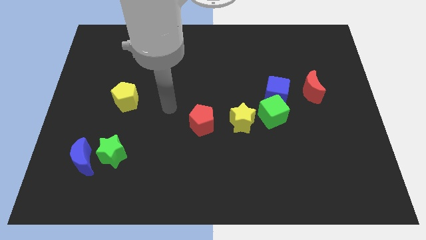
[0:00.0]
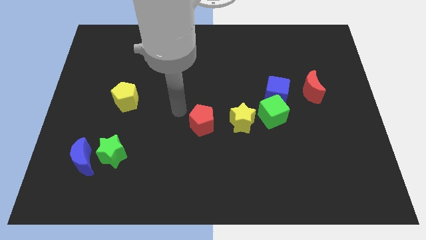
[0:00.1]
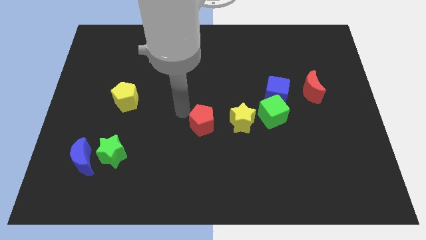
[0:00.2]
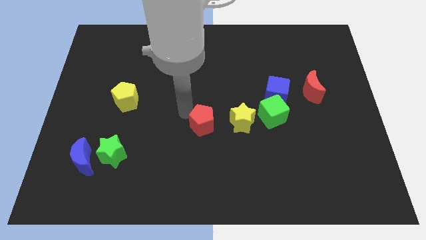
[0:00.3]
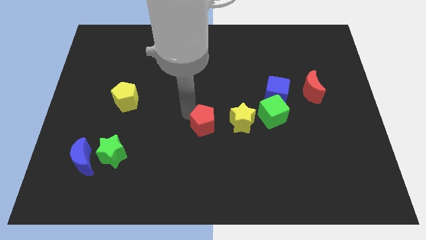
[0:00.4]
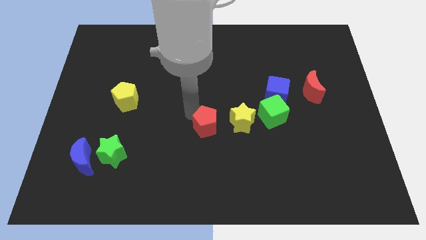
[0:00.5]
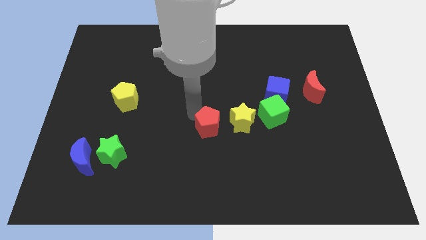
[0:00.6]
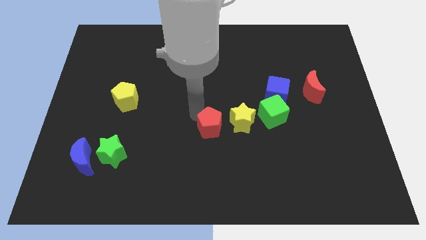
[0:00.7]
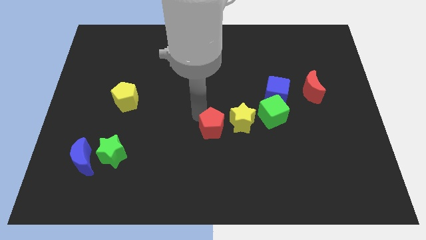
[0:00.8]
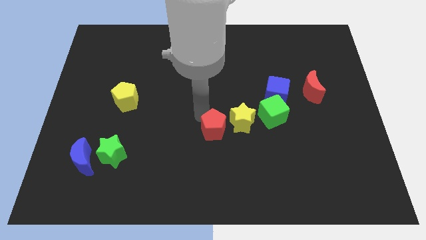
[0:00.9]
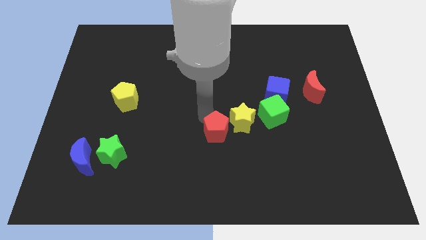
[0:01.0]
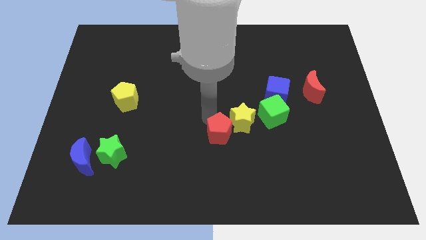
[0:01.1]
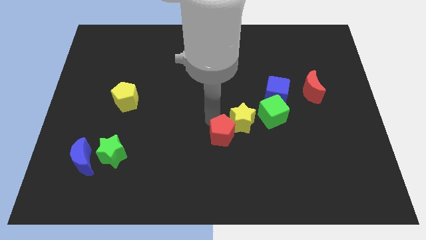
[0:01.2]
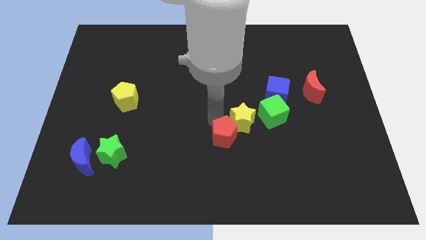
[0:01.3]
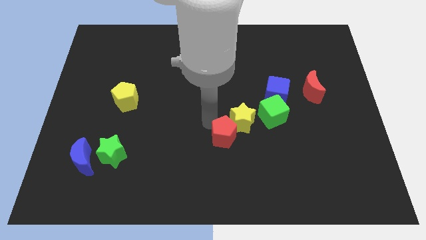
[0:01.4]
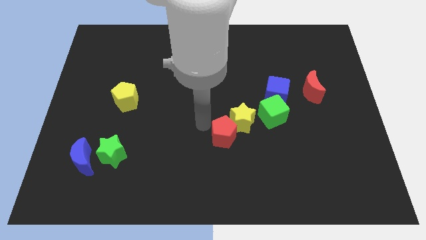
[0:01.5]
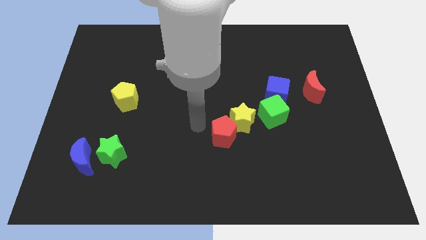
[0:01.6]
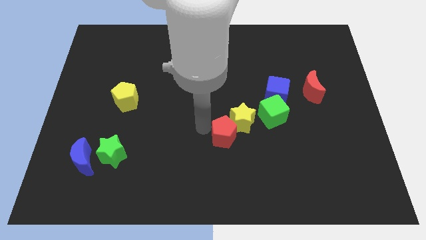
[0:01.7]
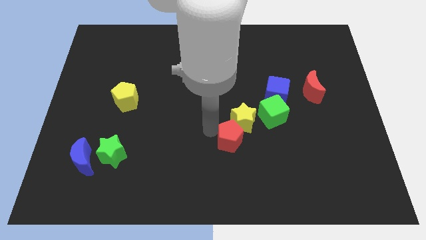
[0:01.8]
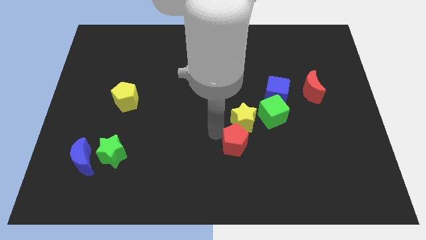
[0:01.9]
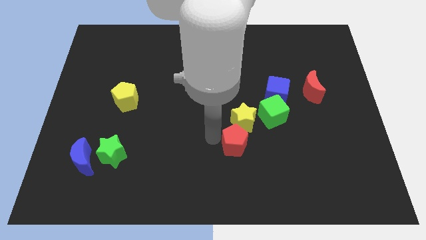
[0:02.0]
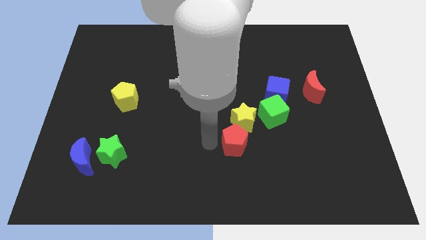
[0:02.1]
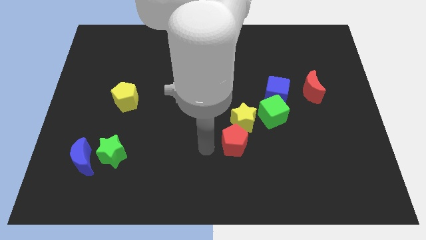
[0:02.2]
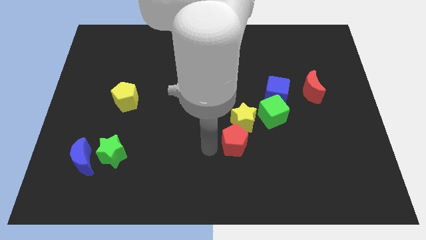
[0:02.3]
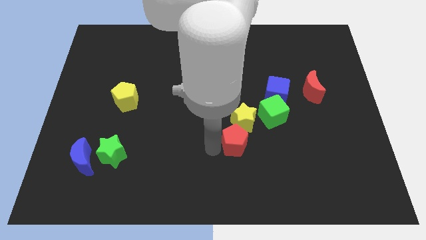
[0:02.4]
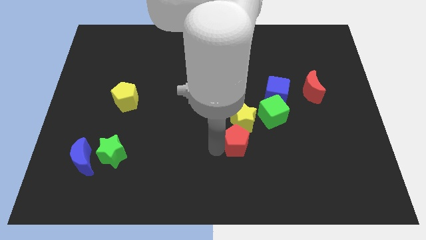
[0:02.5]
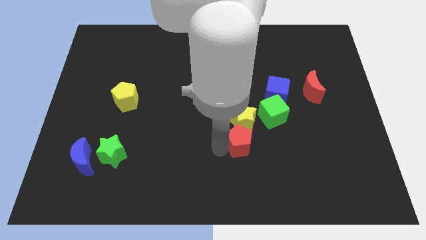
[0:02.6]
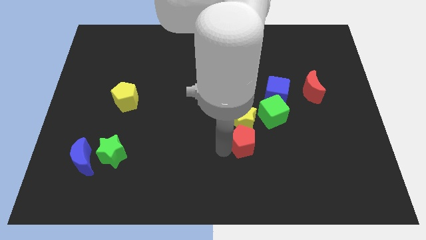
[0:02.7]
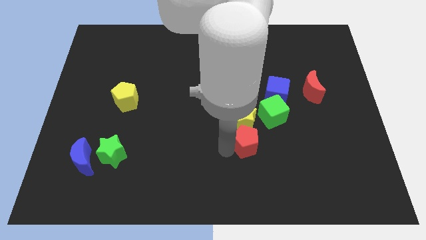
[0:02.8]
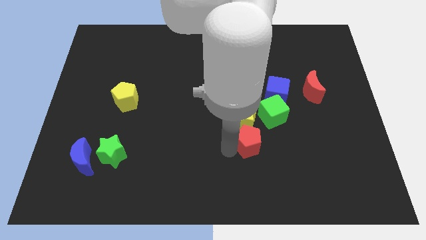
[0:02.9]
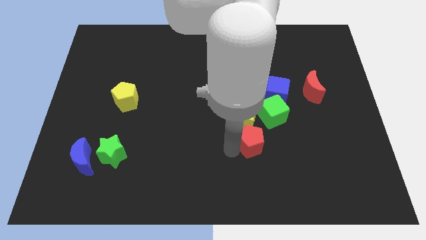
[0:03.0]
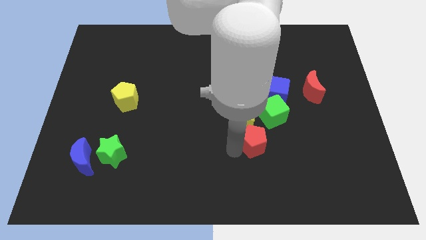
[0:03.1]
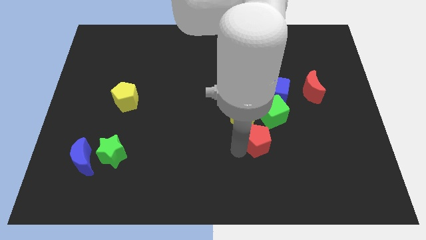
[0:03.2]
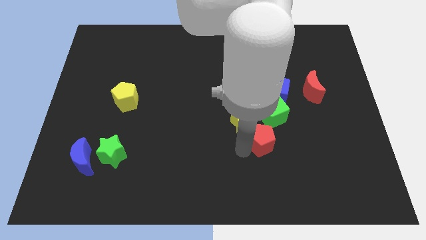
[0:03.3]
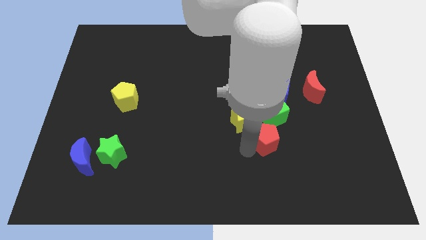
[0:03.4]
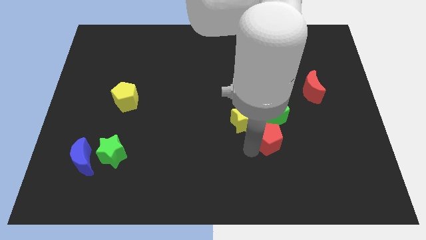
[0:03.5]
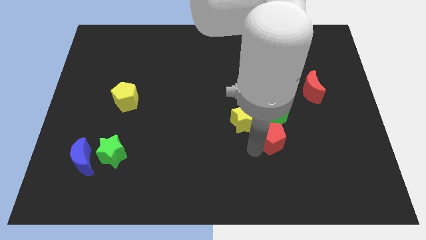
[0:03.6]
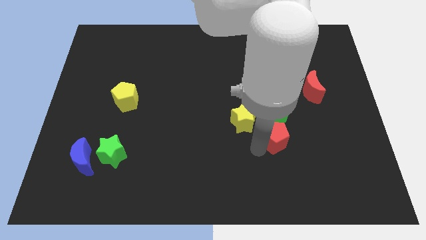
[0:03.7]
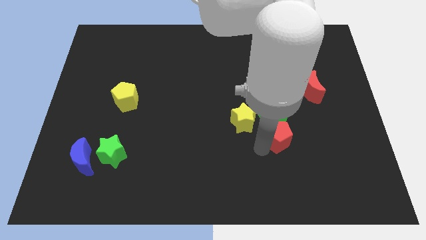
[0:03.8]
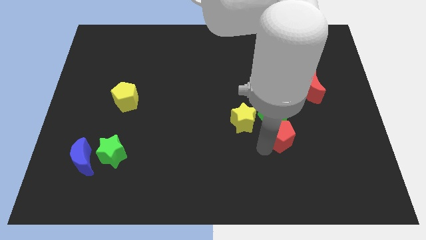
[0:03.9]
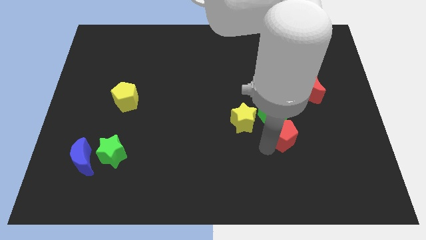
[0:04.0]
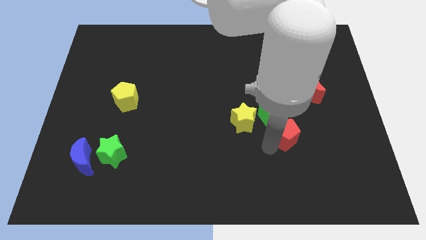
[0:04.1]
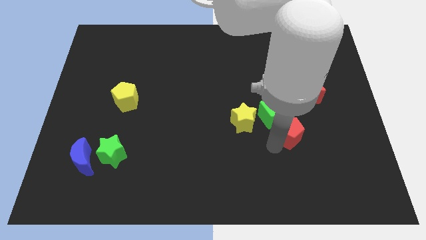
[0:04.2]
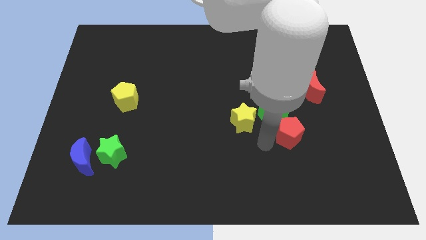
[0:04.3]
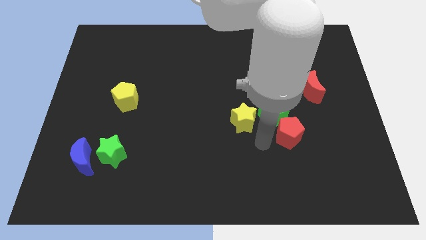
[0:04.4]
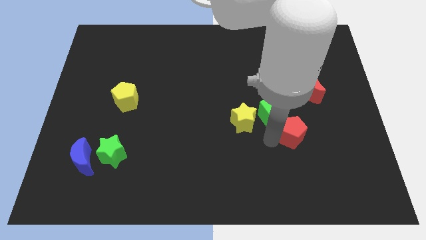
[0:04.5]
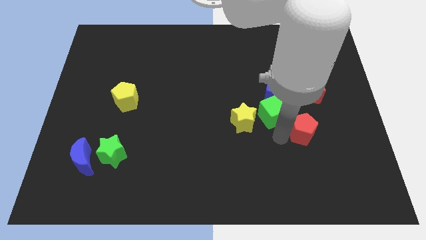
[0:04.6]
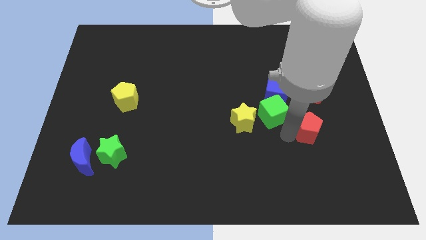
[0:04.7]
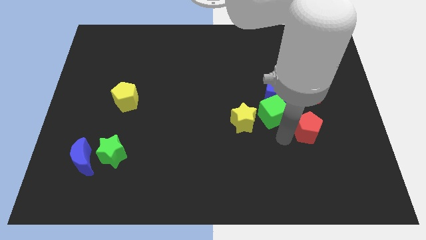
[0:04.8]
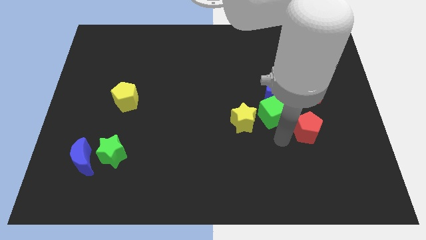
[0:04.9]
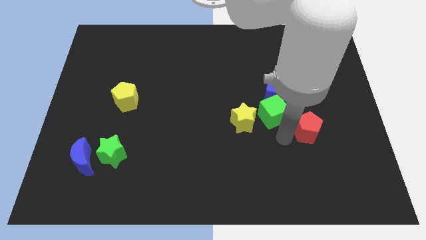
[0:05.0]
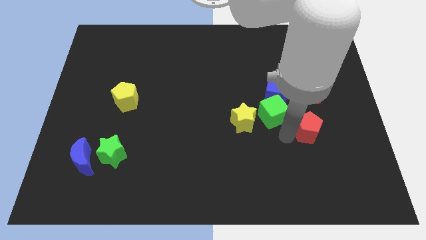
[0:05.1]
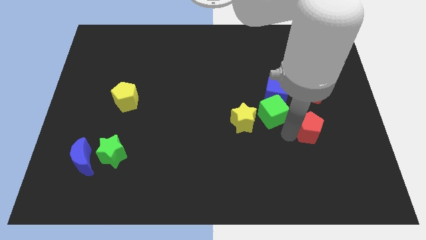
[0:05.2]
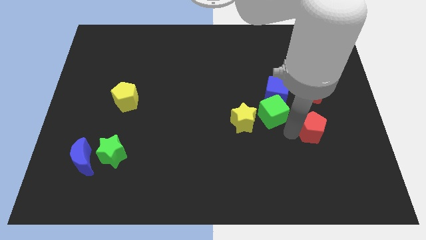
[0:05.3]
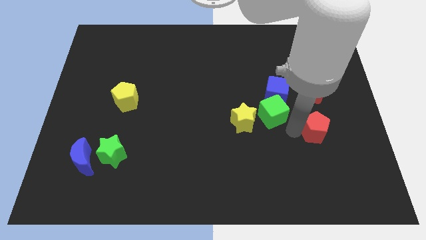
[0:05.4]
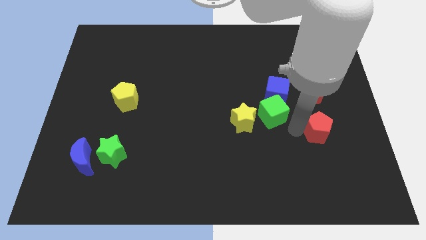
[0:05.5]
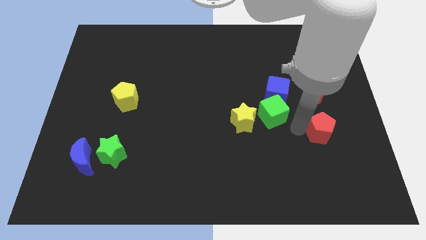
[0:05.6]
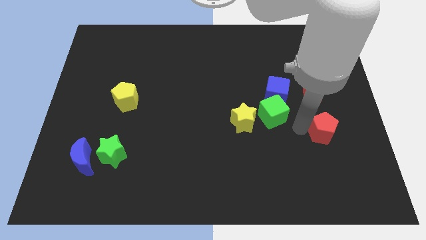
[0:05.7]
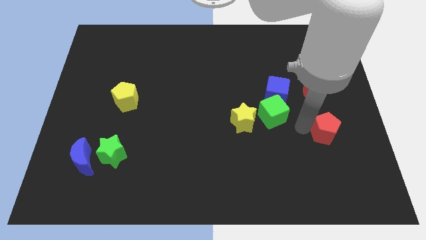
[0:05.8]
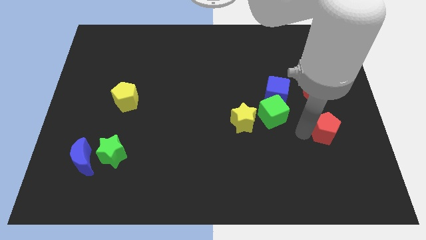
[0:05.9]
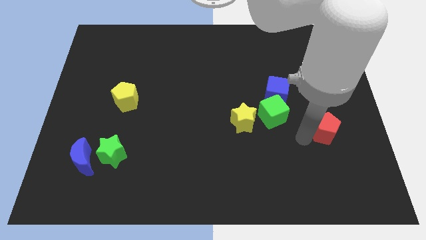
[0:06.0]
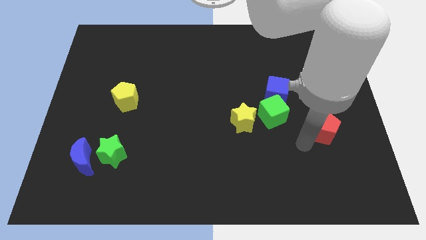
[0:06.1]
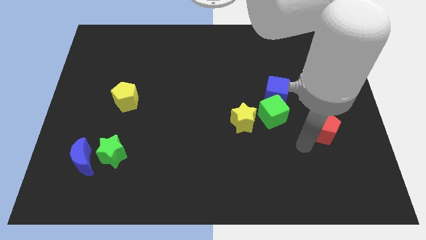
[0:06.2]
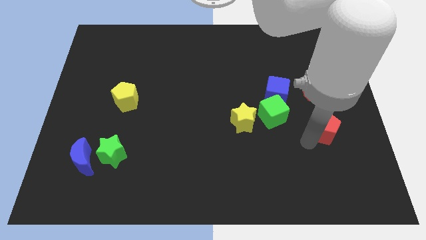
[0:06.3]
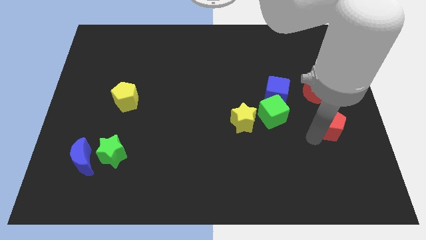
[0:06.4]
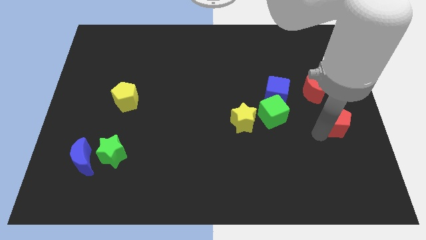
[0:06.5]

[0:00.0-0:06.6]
put the red pentagon to the center right

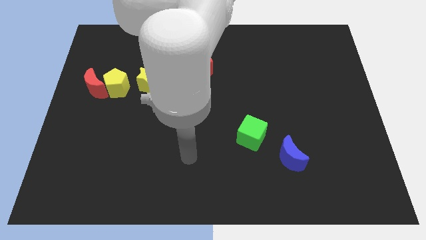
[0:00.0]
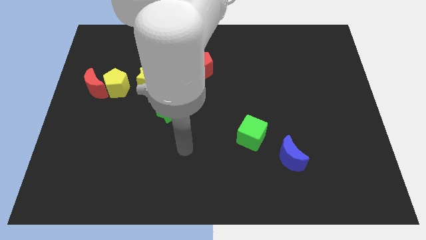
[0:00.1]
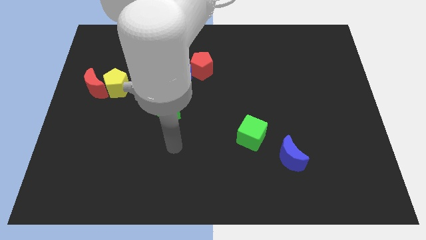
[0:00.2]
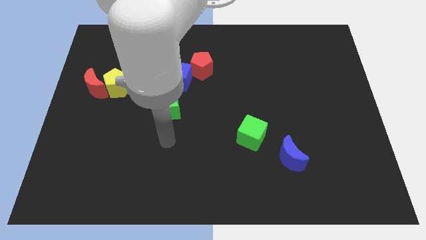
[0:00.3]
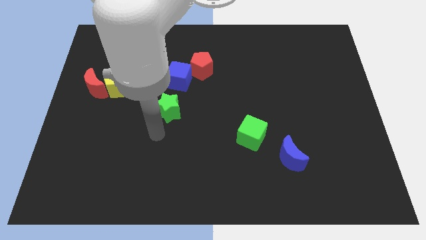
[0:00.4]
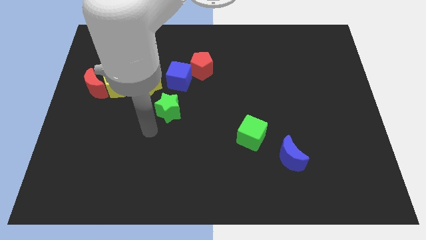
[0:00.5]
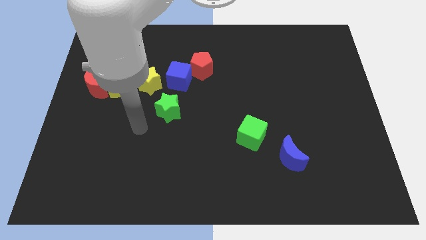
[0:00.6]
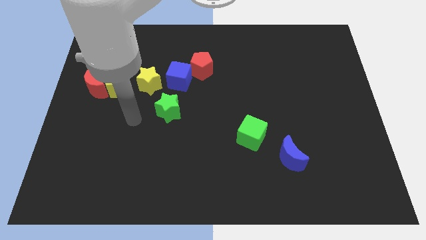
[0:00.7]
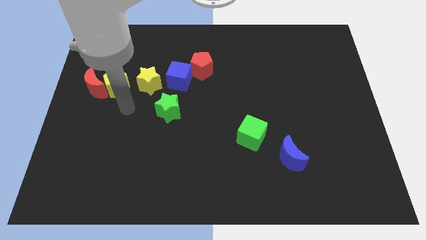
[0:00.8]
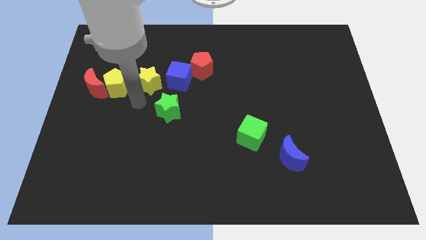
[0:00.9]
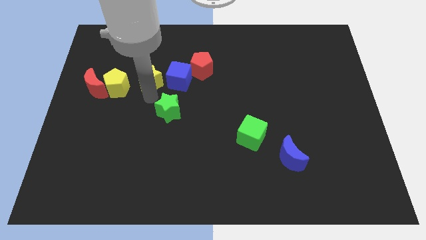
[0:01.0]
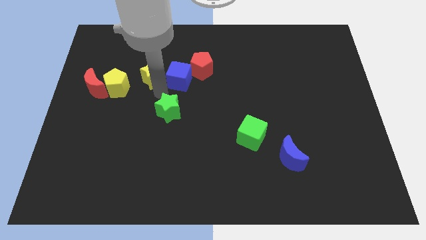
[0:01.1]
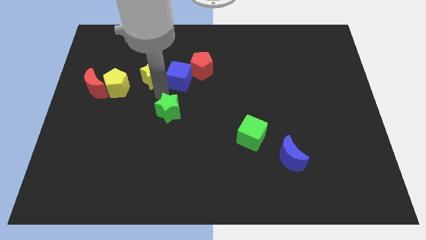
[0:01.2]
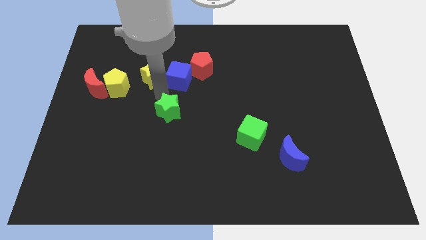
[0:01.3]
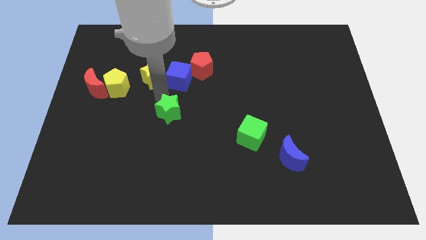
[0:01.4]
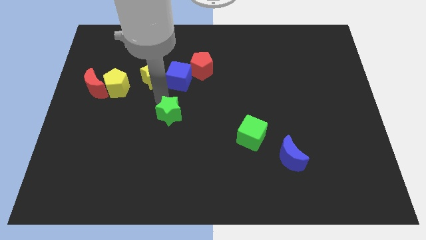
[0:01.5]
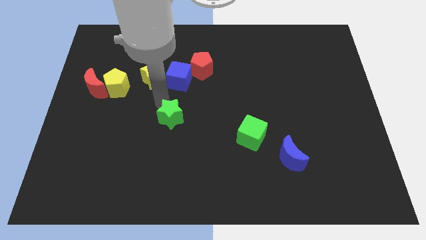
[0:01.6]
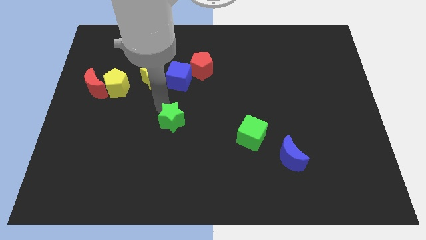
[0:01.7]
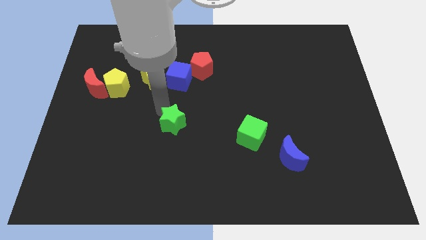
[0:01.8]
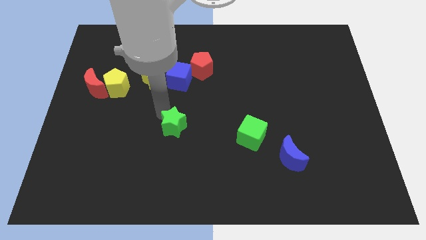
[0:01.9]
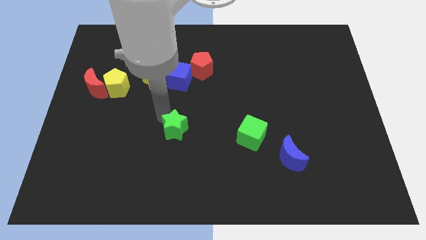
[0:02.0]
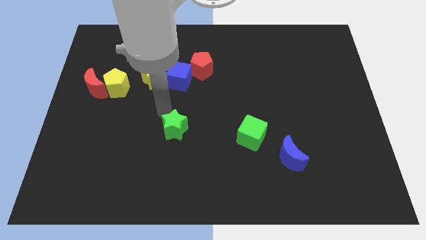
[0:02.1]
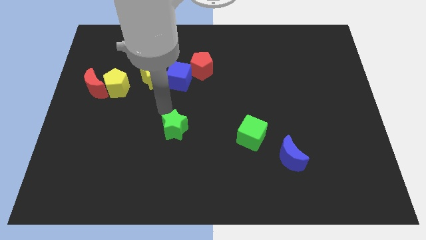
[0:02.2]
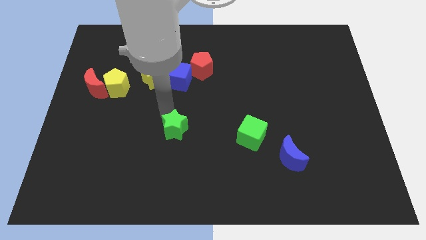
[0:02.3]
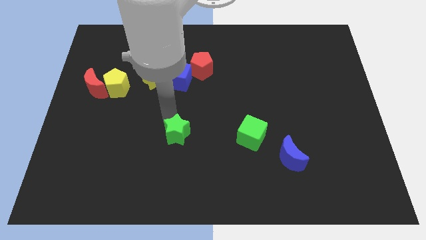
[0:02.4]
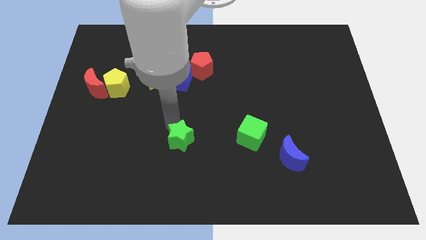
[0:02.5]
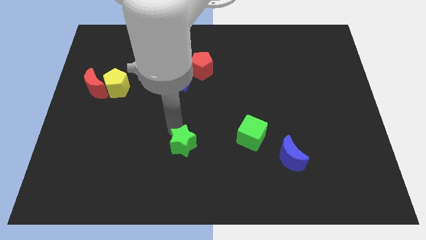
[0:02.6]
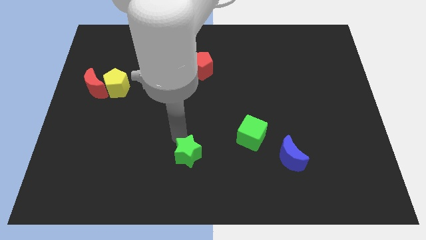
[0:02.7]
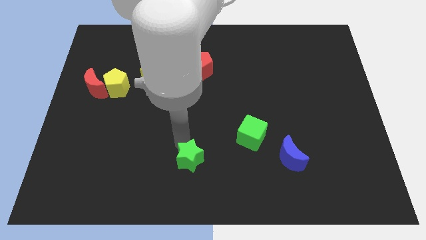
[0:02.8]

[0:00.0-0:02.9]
slide the green star to the bottom side
